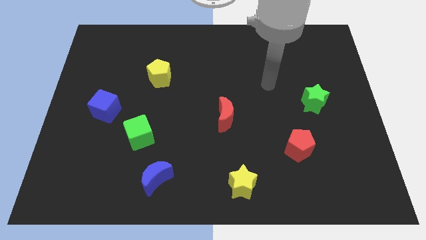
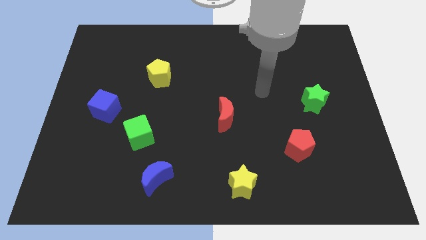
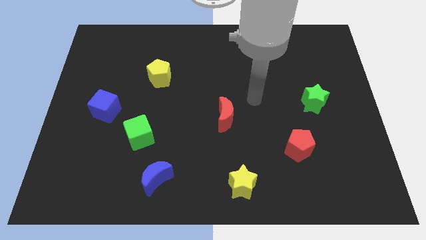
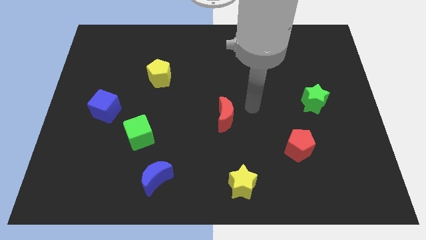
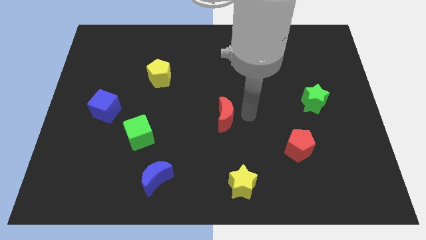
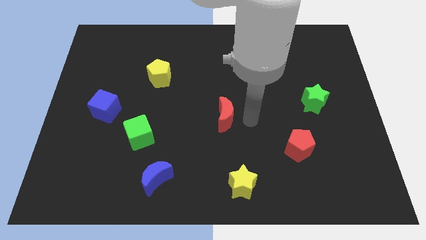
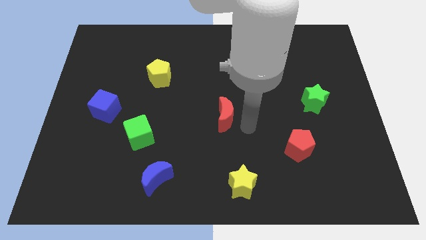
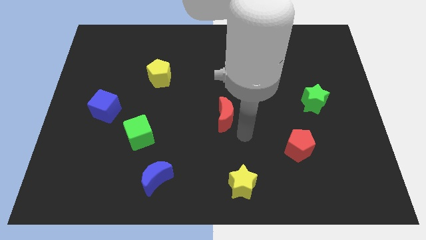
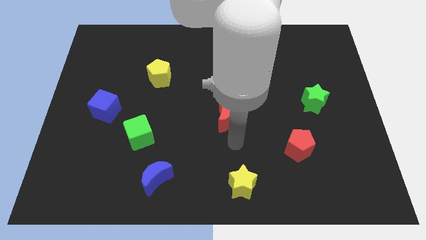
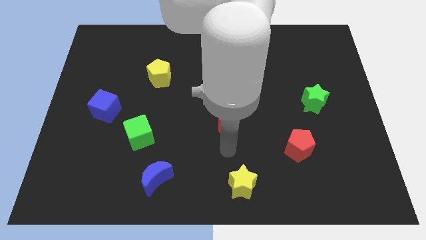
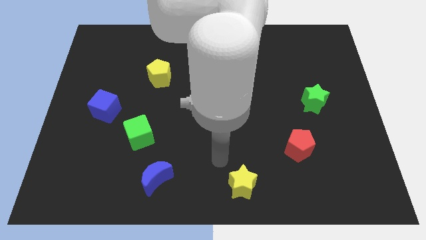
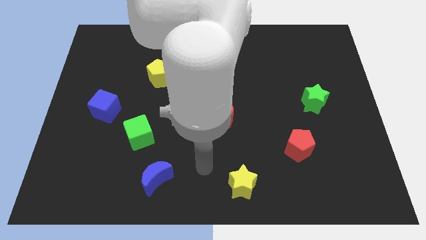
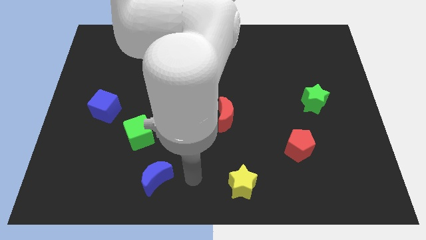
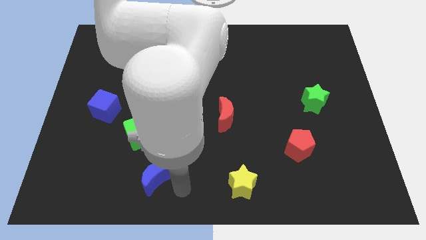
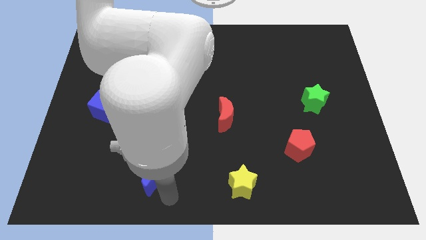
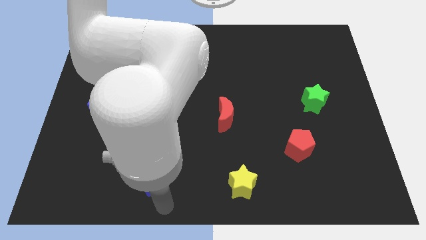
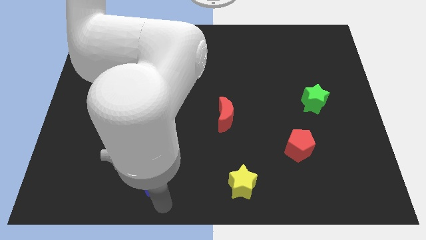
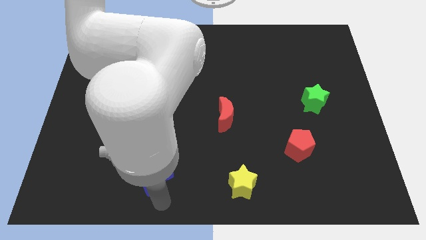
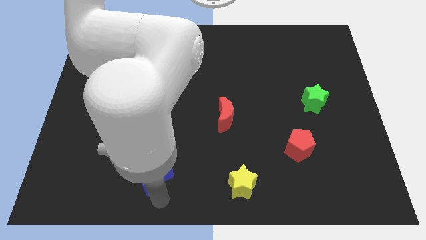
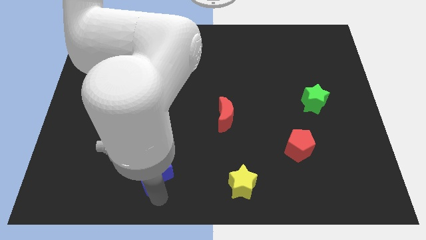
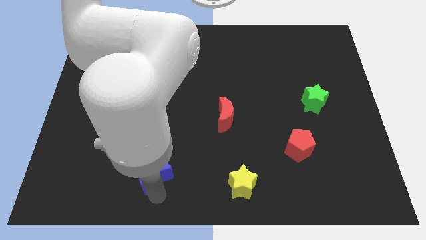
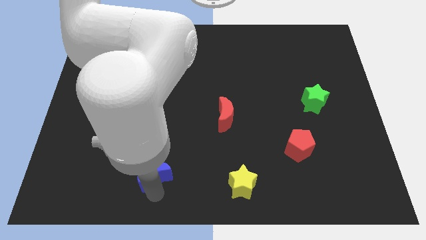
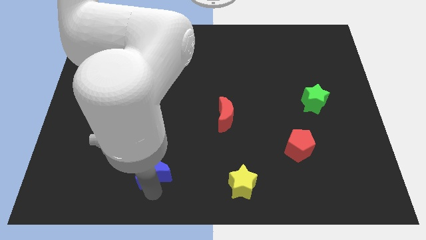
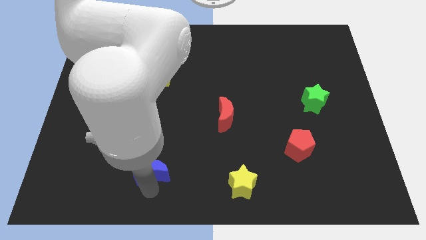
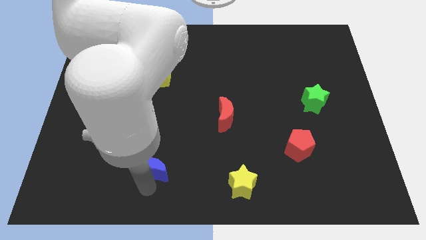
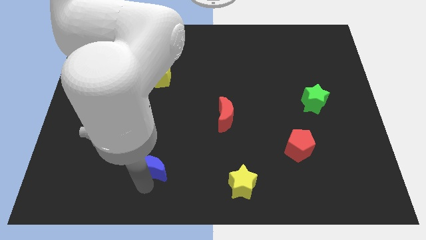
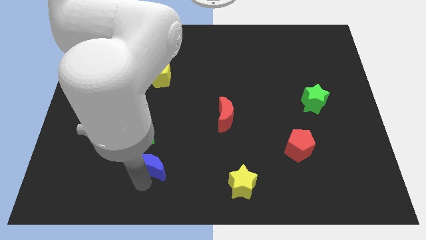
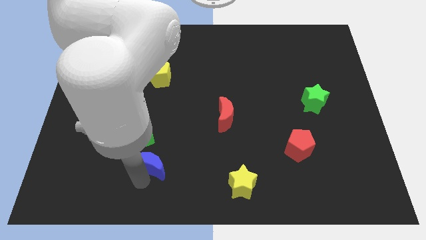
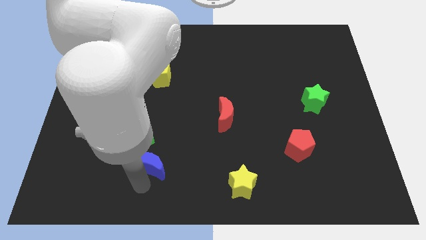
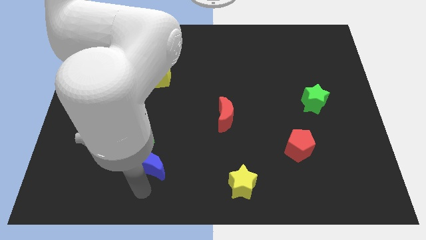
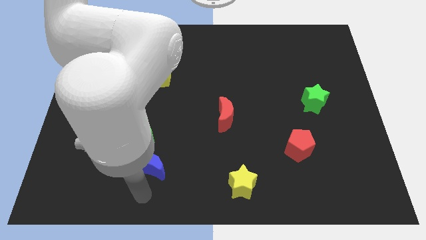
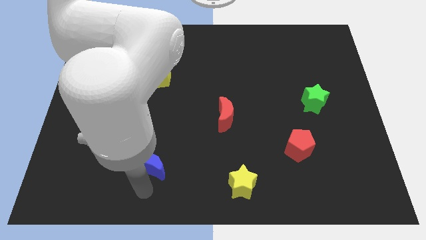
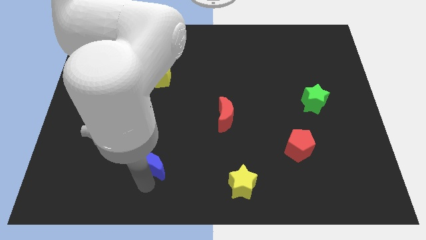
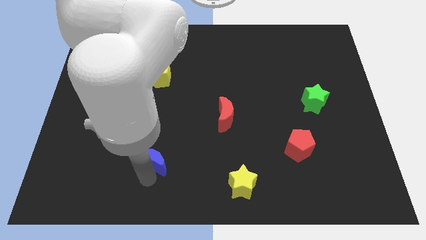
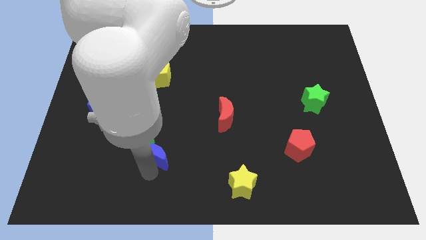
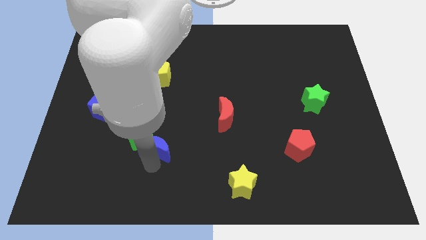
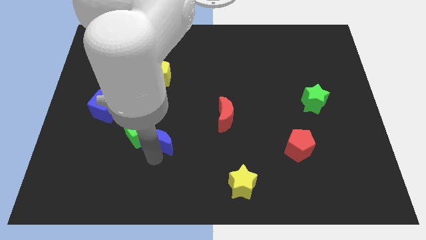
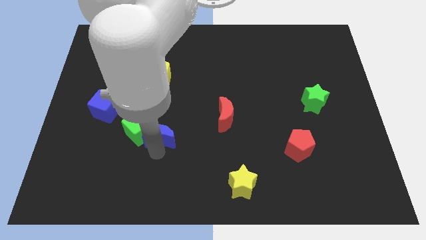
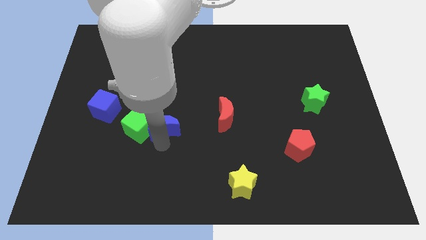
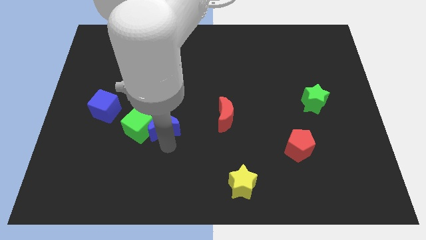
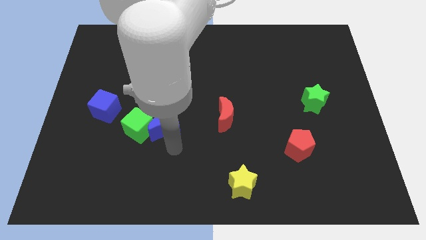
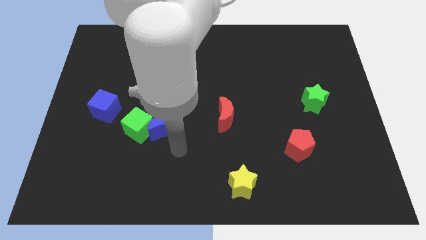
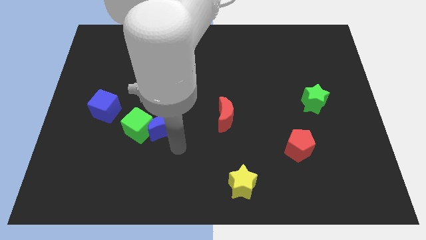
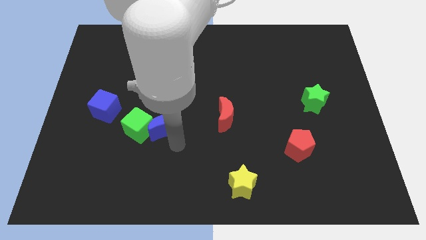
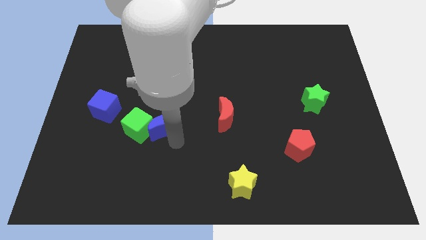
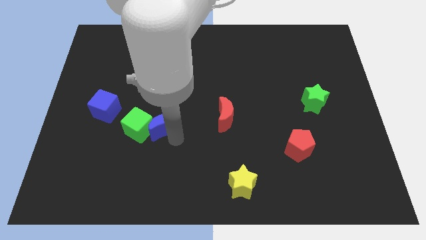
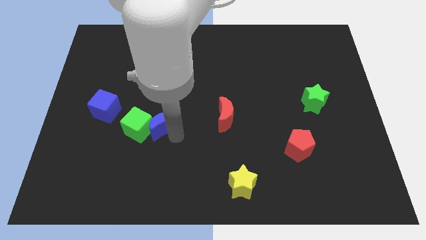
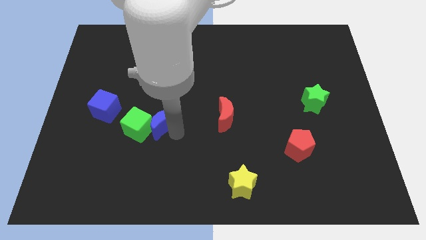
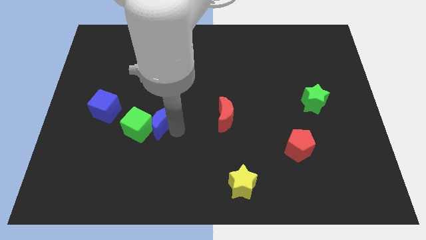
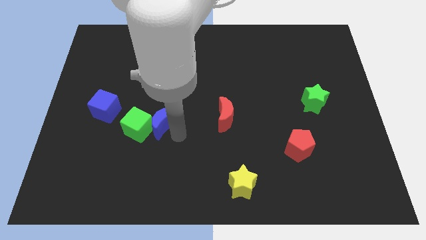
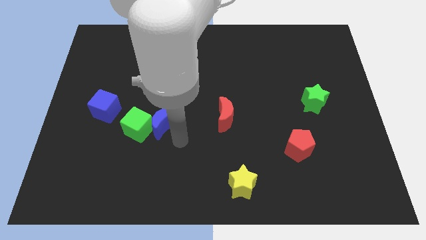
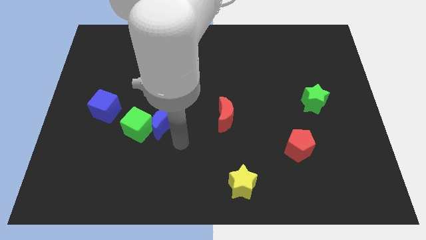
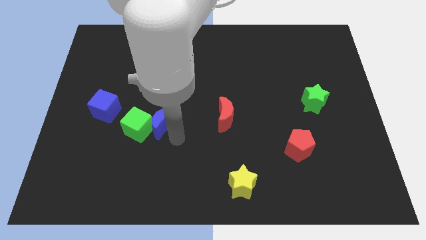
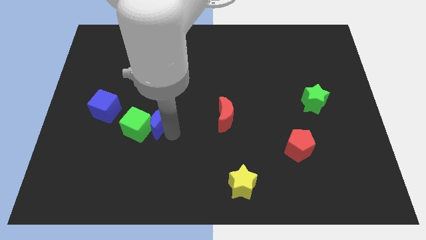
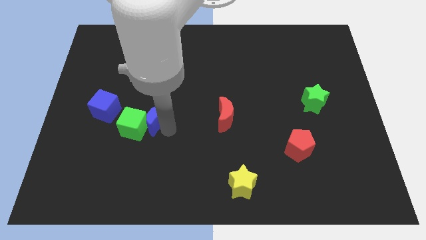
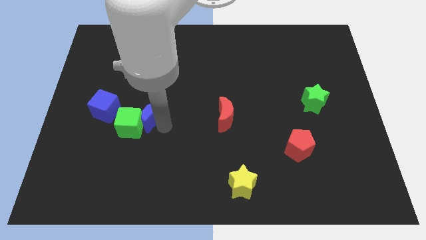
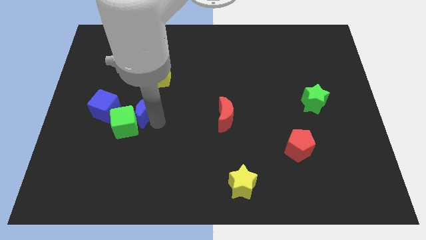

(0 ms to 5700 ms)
slide the blue moon to the top side of the green cube

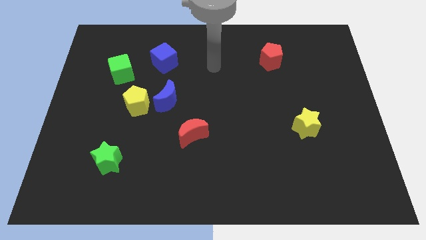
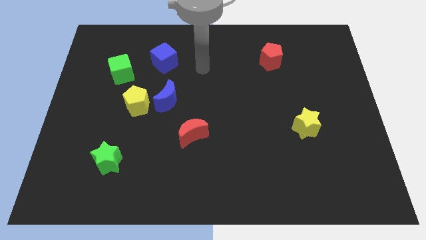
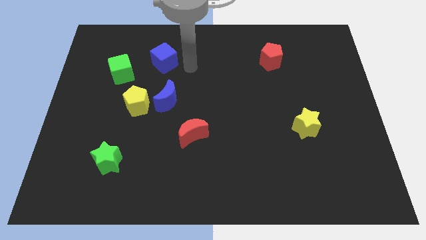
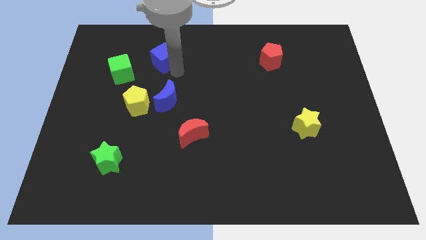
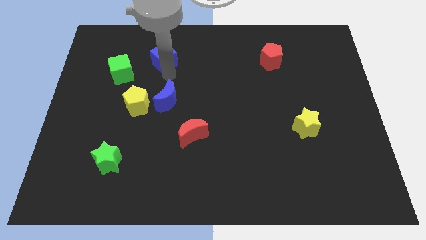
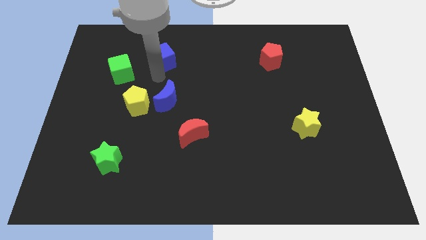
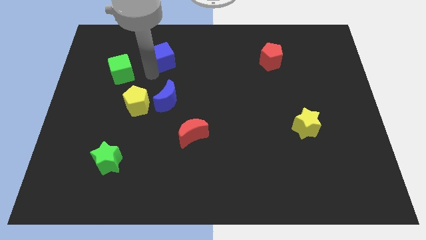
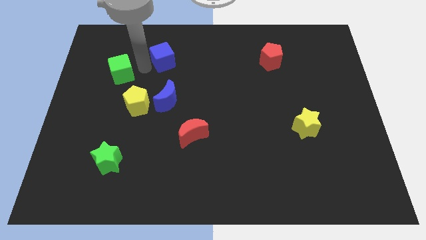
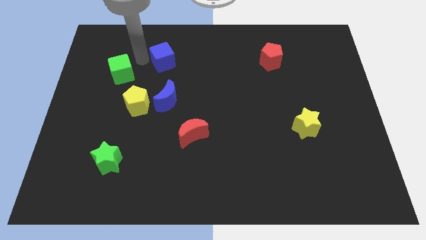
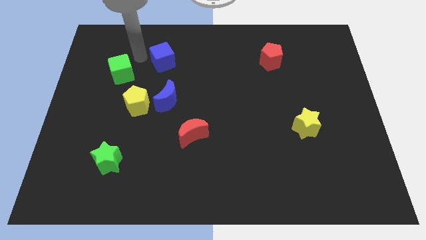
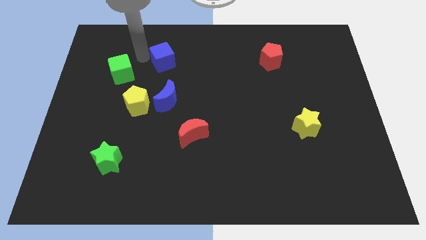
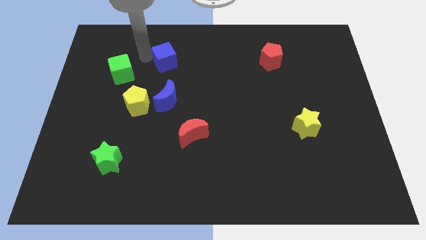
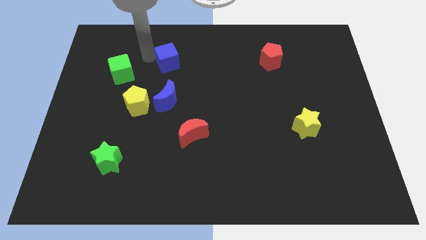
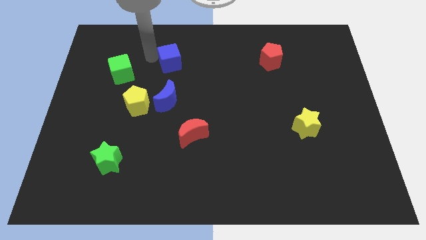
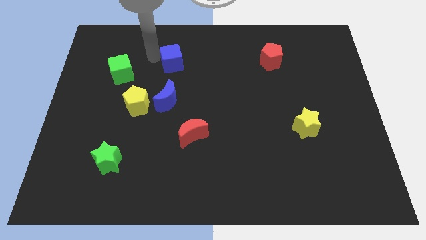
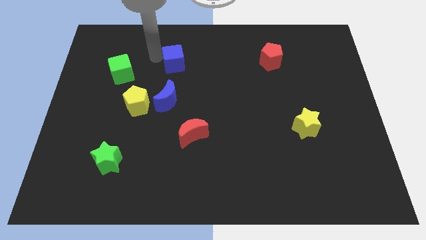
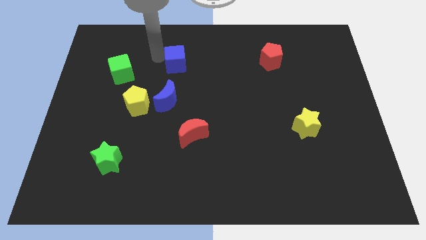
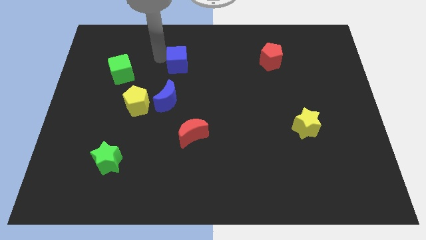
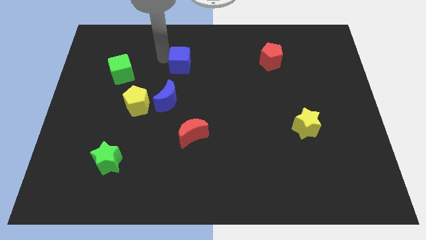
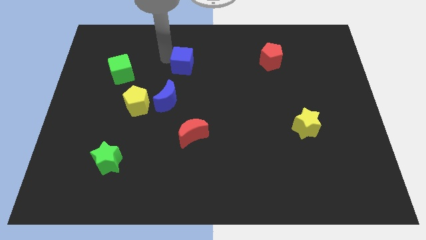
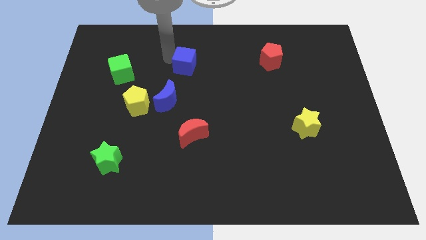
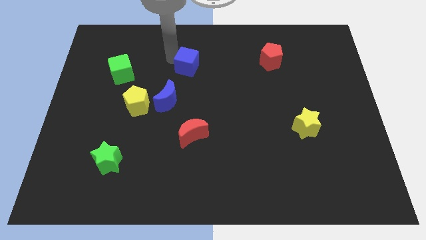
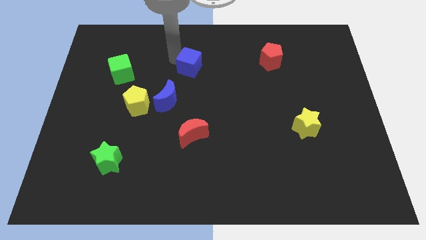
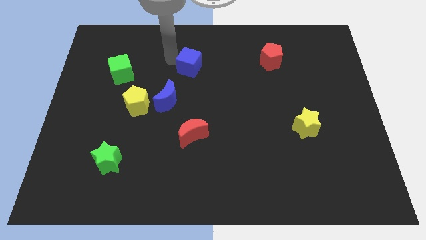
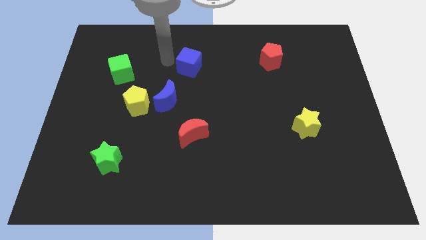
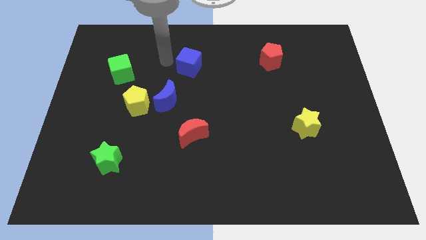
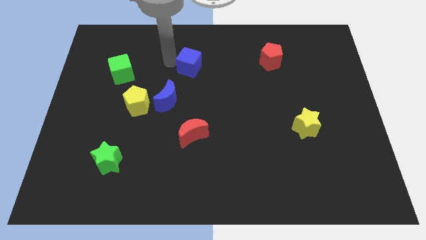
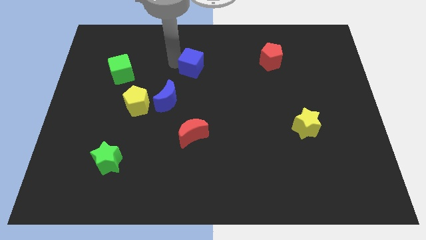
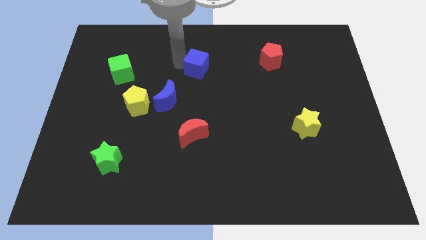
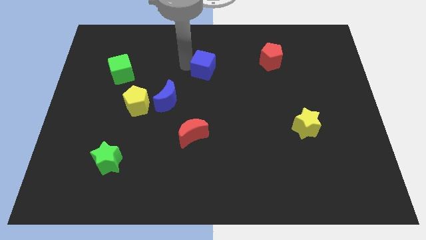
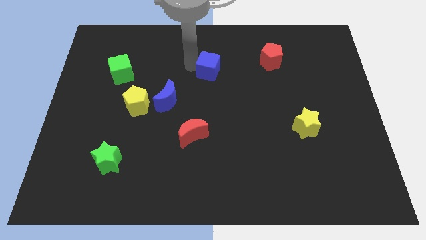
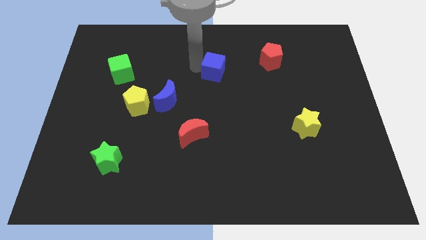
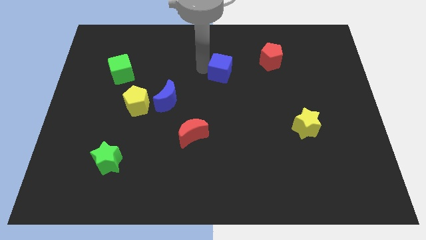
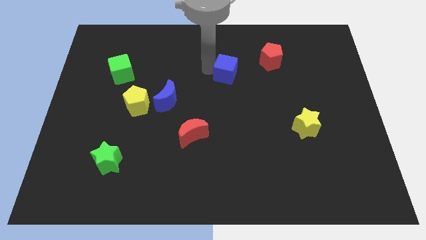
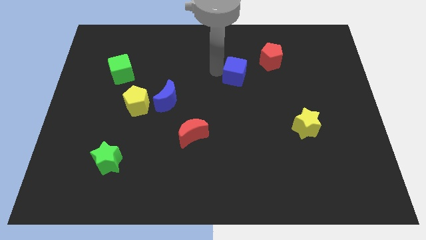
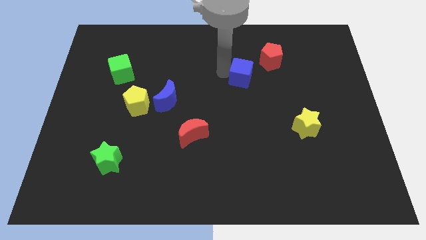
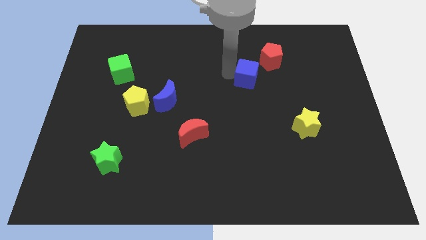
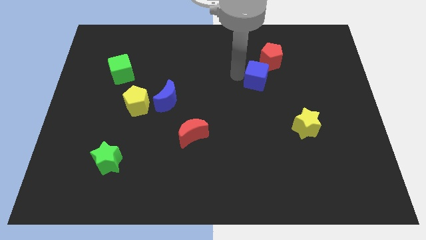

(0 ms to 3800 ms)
move the blue cube to the bottom side of the red pentagon
